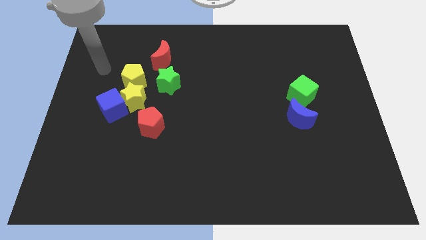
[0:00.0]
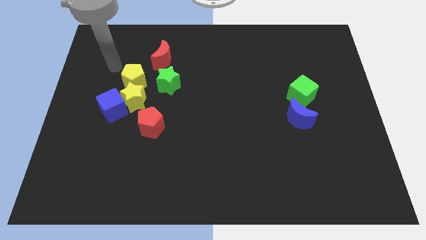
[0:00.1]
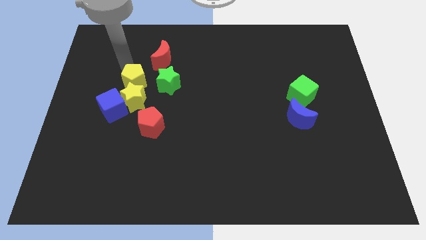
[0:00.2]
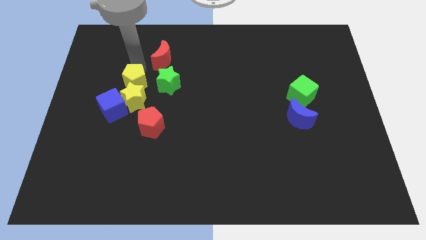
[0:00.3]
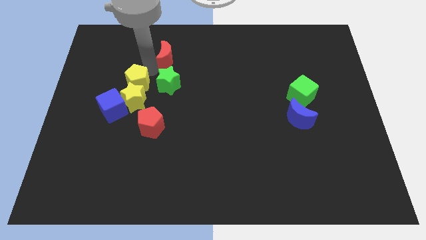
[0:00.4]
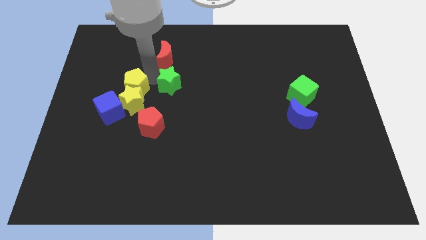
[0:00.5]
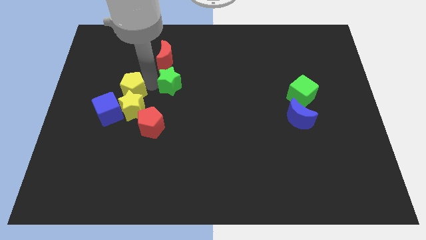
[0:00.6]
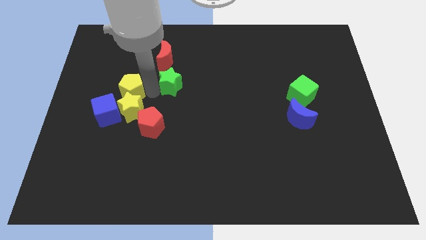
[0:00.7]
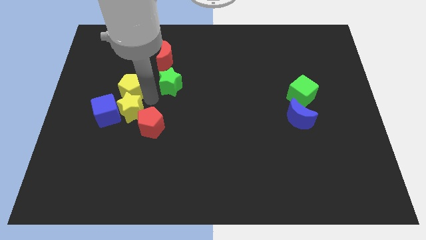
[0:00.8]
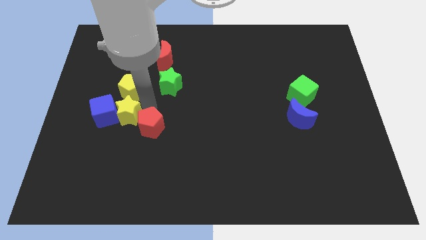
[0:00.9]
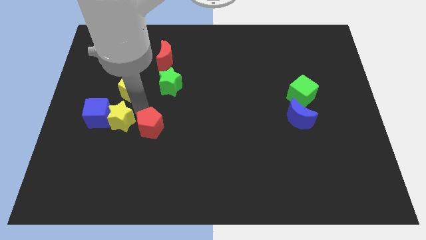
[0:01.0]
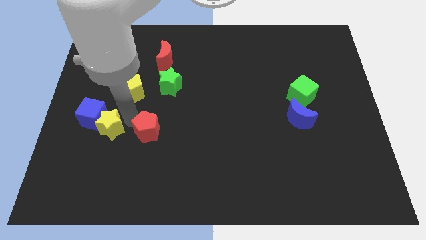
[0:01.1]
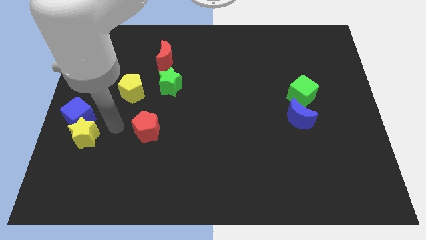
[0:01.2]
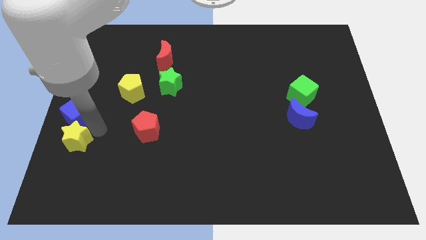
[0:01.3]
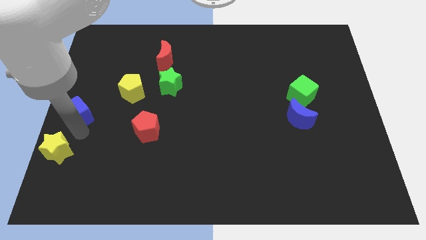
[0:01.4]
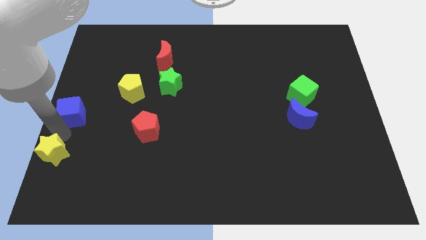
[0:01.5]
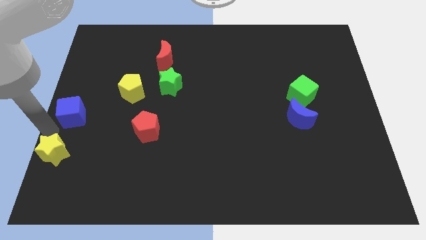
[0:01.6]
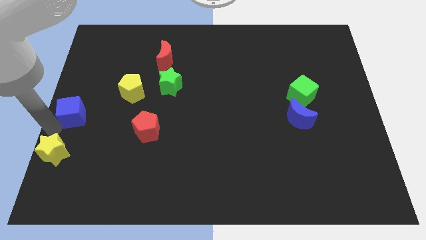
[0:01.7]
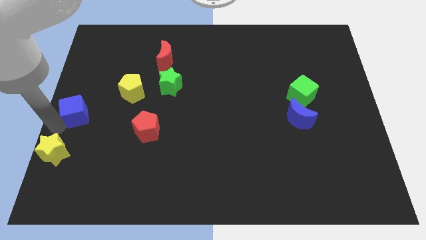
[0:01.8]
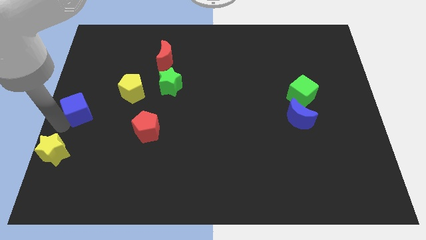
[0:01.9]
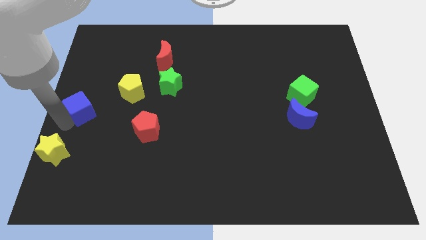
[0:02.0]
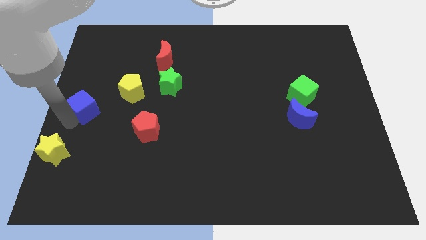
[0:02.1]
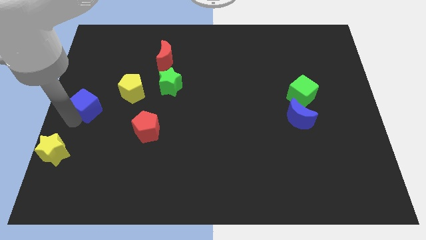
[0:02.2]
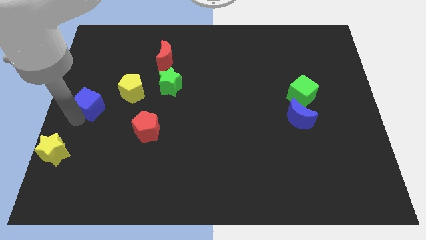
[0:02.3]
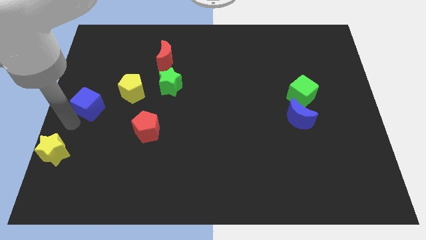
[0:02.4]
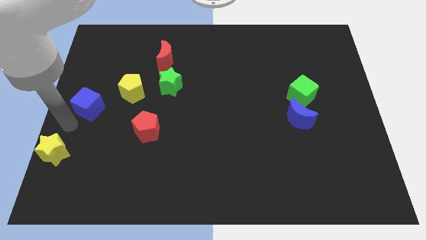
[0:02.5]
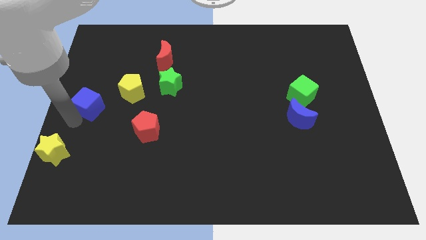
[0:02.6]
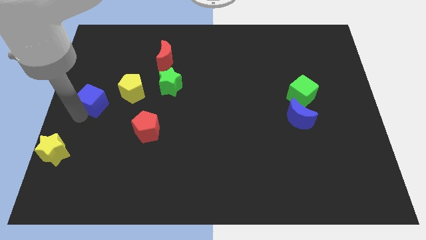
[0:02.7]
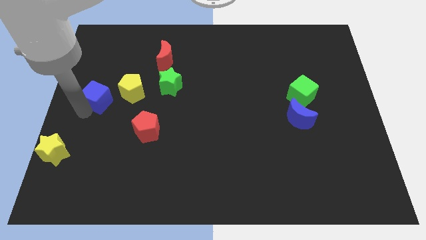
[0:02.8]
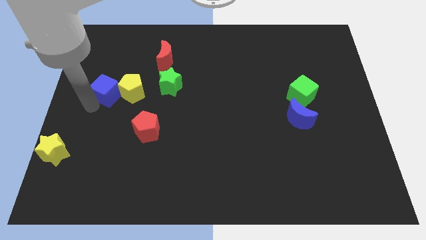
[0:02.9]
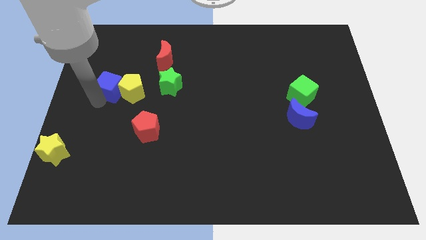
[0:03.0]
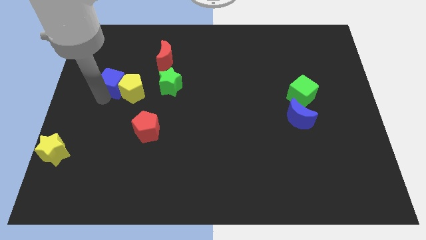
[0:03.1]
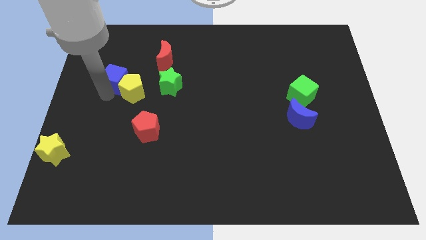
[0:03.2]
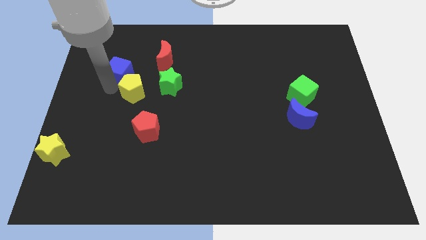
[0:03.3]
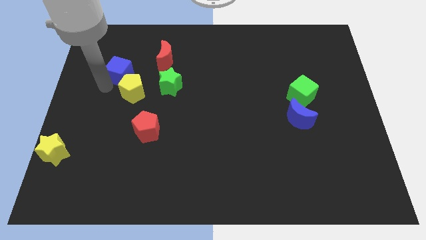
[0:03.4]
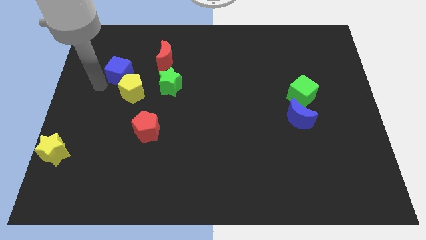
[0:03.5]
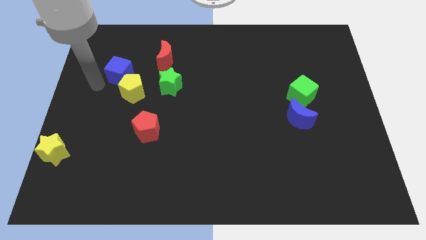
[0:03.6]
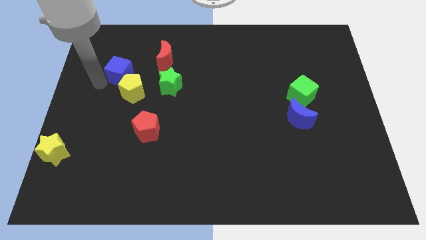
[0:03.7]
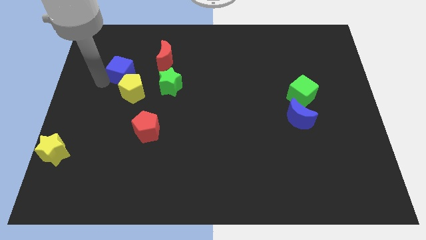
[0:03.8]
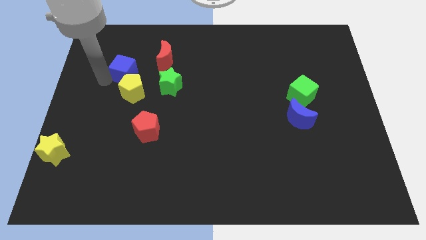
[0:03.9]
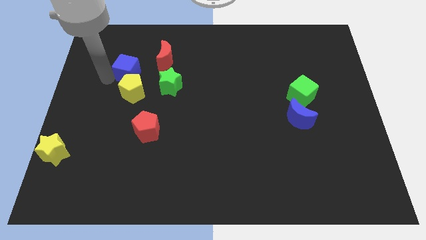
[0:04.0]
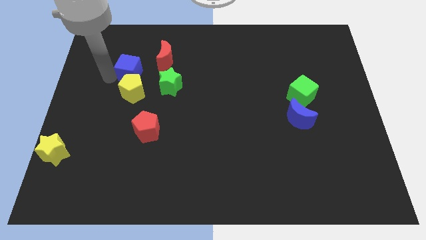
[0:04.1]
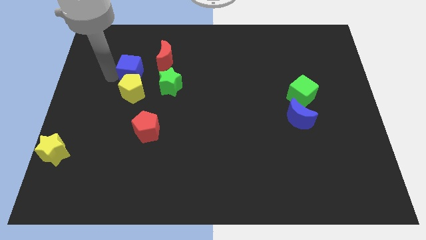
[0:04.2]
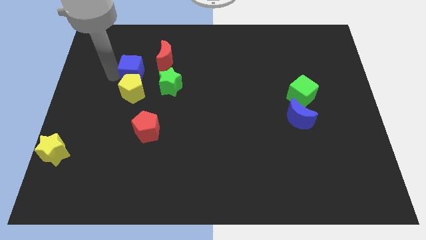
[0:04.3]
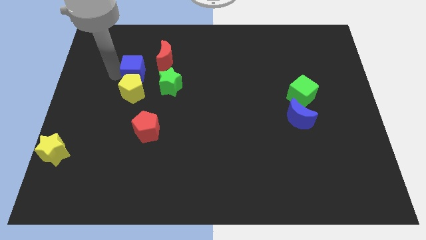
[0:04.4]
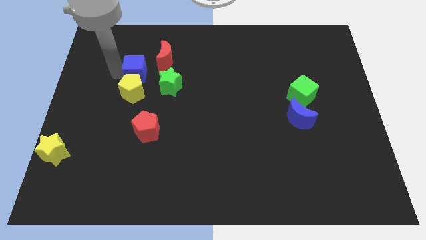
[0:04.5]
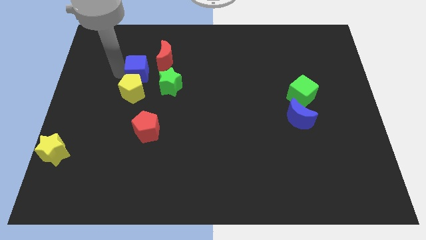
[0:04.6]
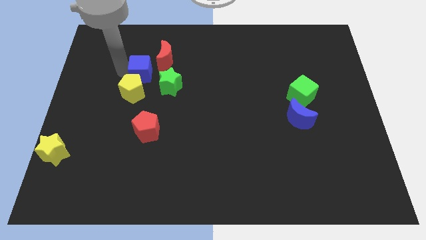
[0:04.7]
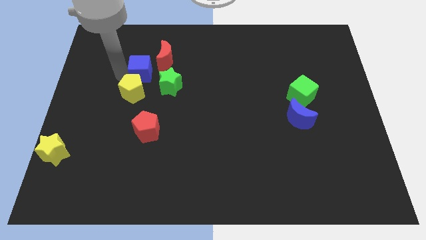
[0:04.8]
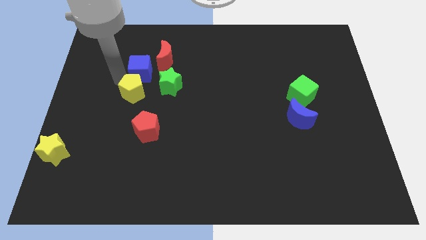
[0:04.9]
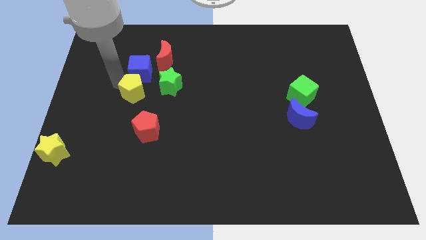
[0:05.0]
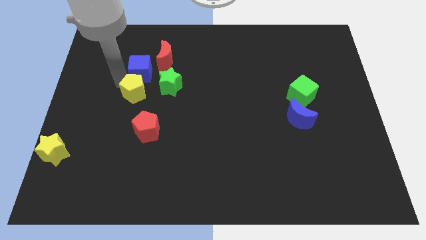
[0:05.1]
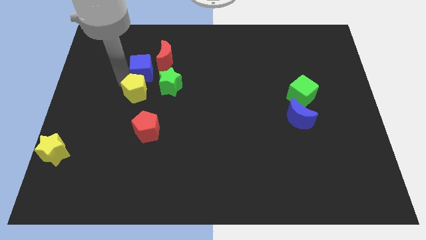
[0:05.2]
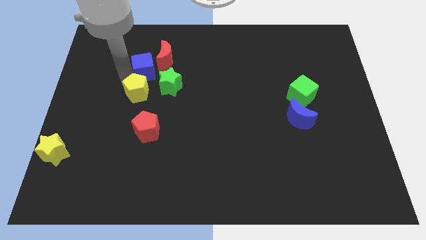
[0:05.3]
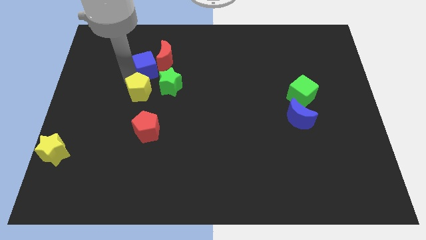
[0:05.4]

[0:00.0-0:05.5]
put the blue cube close to the red moon

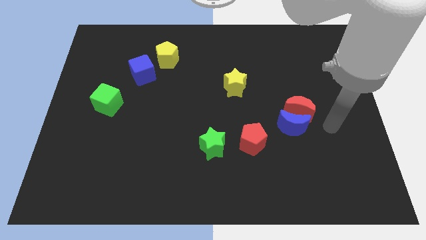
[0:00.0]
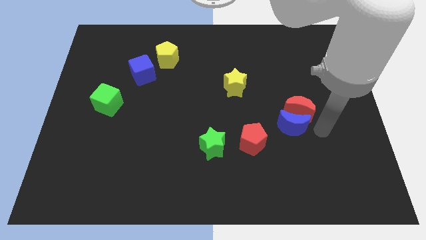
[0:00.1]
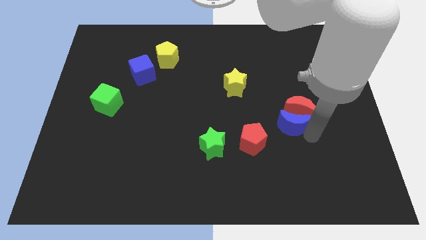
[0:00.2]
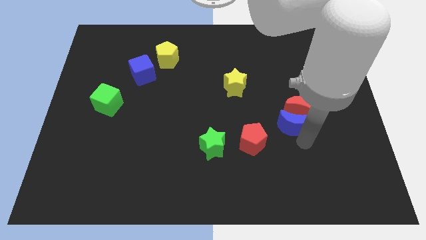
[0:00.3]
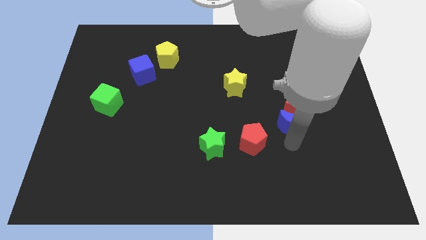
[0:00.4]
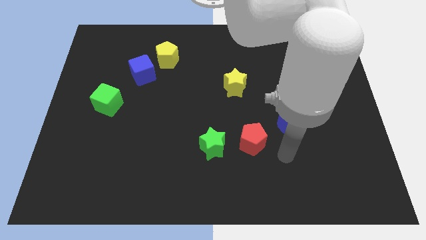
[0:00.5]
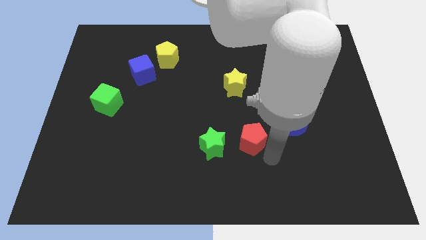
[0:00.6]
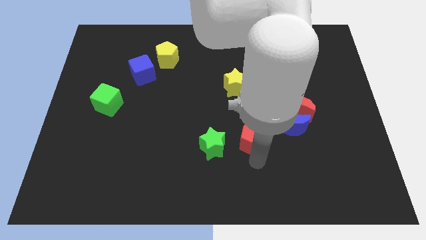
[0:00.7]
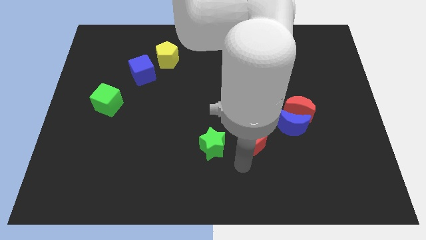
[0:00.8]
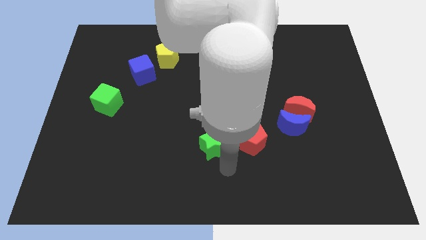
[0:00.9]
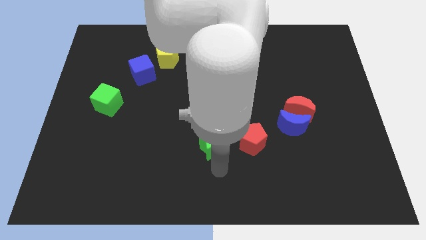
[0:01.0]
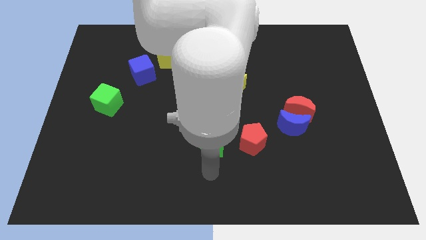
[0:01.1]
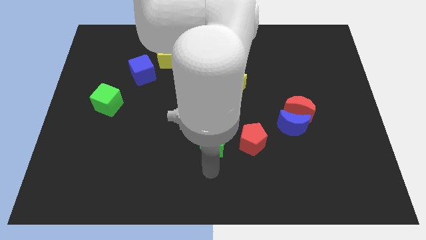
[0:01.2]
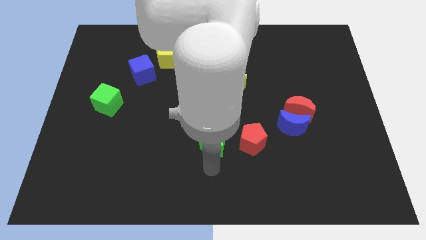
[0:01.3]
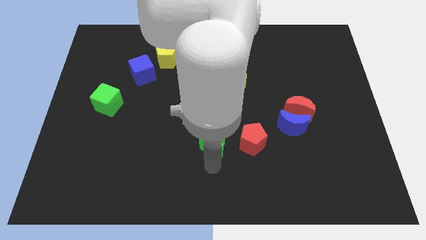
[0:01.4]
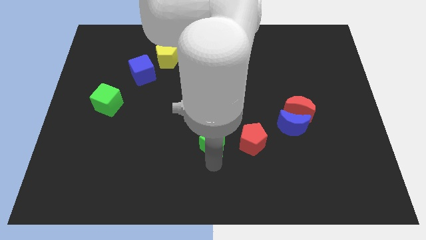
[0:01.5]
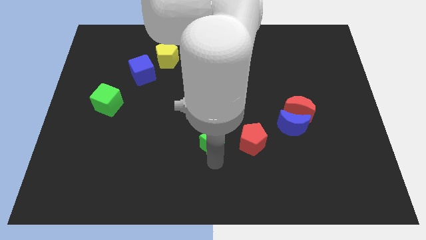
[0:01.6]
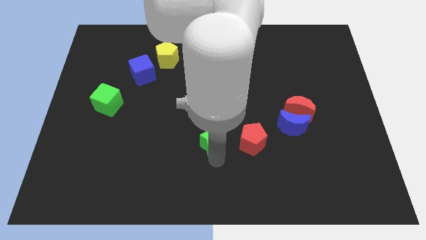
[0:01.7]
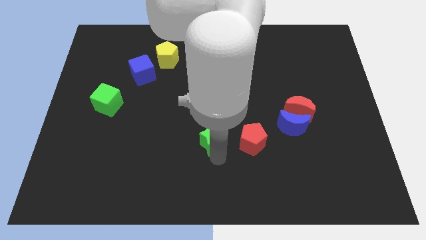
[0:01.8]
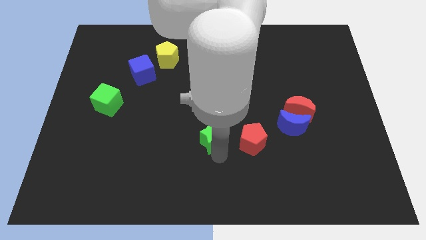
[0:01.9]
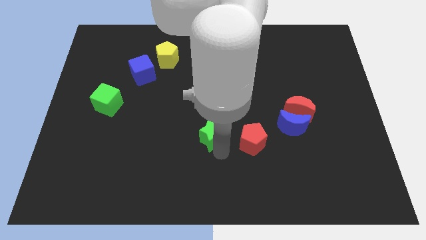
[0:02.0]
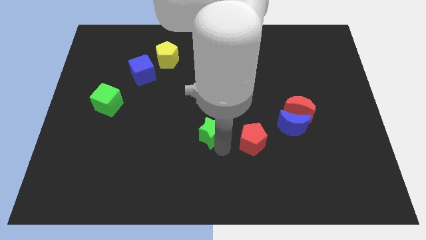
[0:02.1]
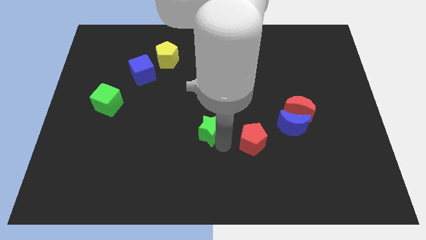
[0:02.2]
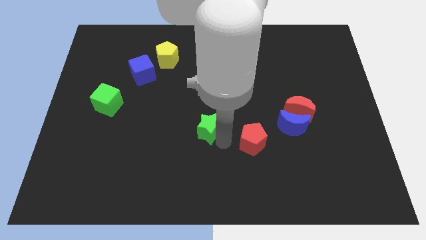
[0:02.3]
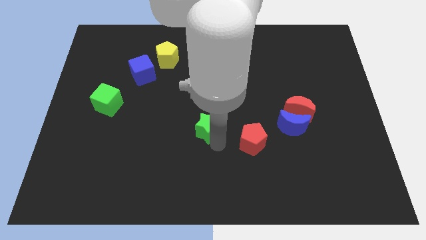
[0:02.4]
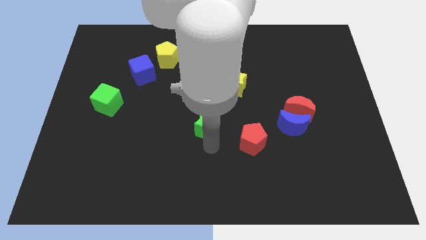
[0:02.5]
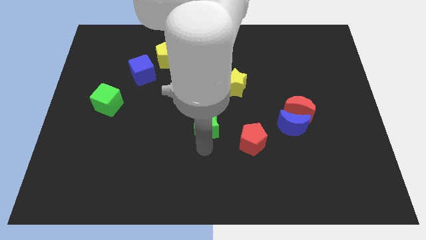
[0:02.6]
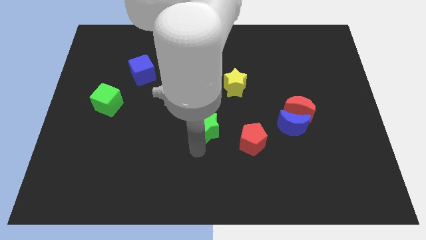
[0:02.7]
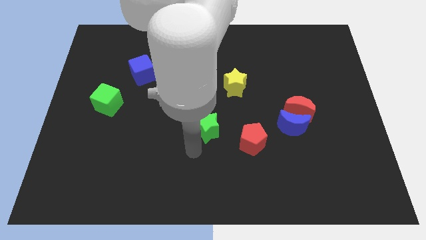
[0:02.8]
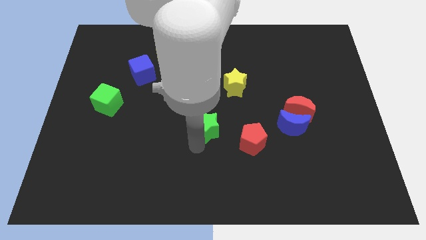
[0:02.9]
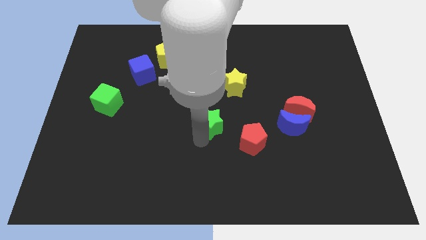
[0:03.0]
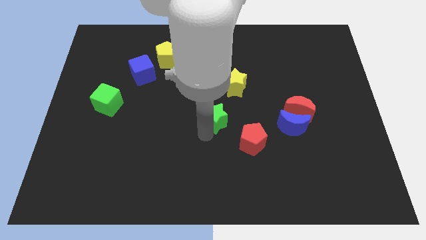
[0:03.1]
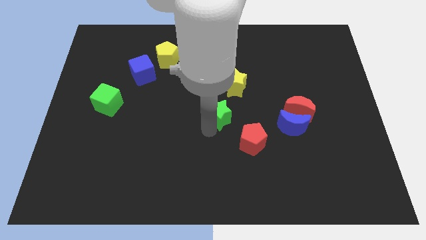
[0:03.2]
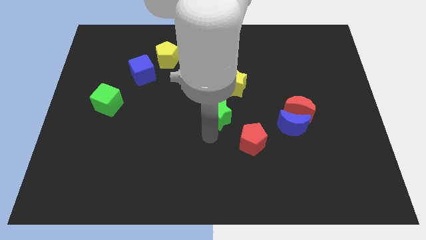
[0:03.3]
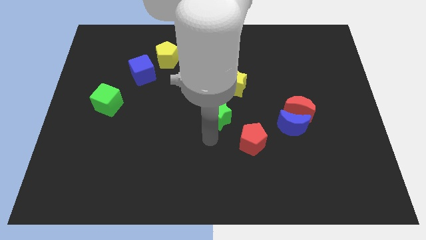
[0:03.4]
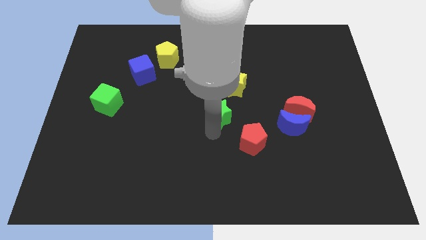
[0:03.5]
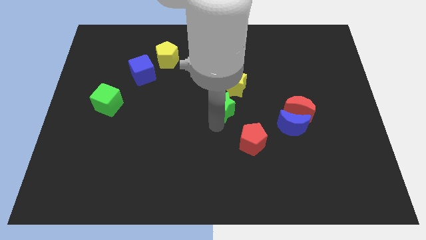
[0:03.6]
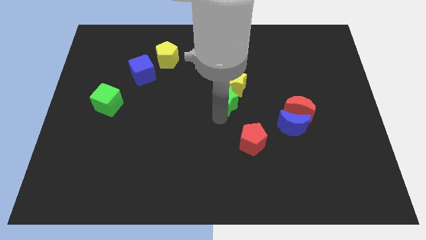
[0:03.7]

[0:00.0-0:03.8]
move the green star close to the yellow star
